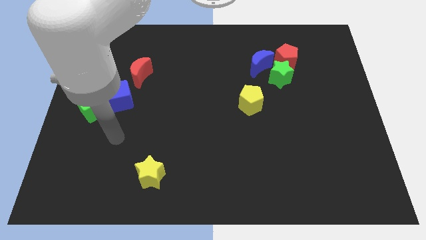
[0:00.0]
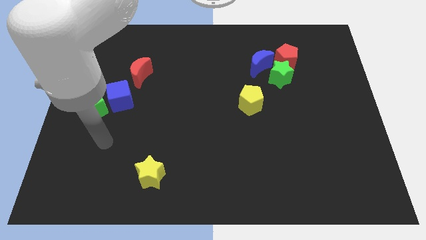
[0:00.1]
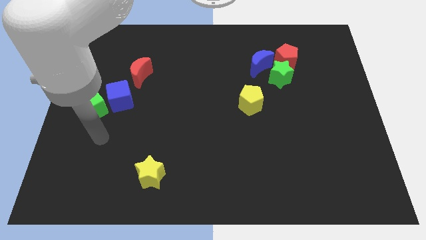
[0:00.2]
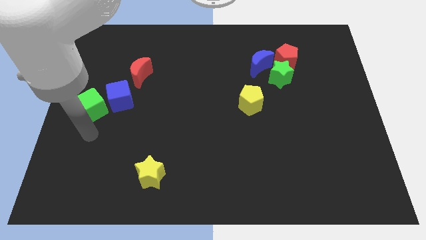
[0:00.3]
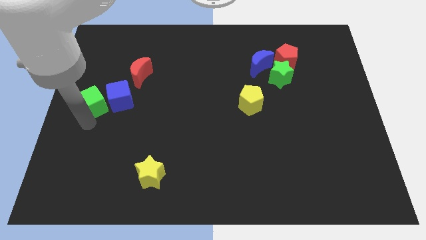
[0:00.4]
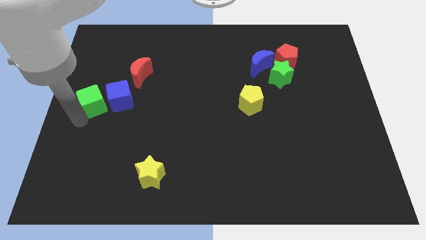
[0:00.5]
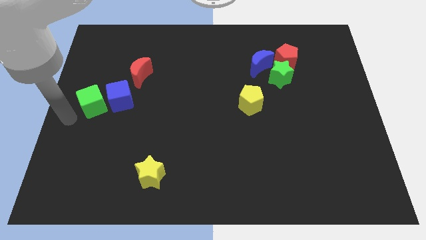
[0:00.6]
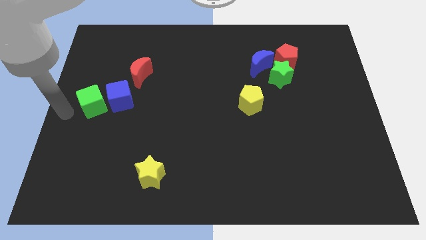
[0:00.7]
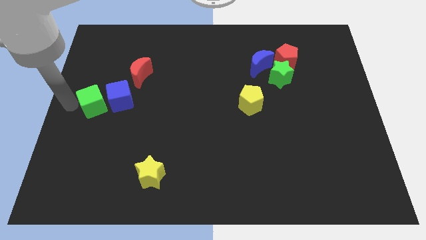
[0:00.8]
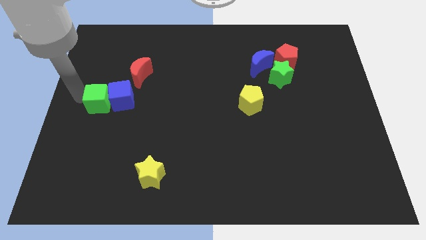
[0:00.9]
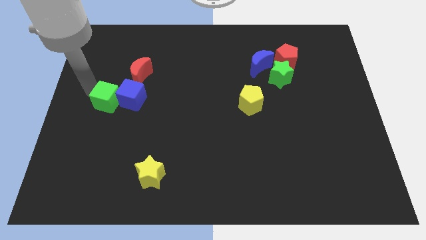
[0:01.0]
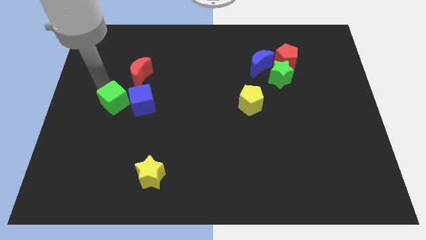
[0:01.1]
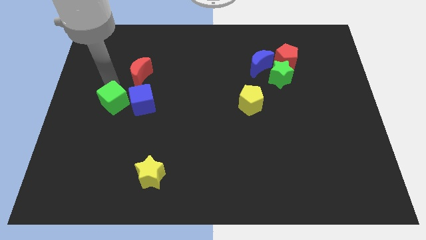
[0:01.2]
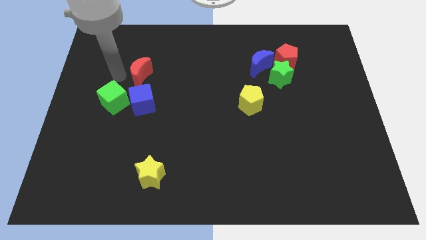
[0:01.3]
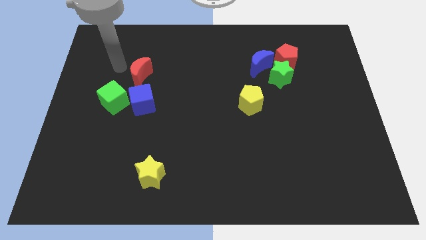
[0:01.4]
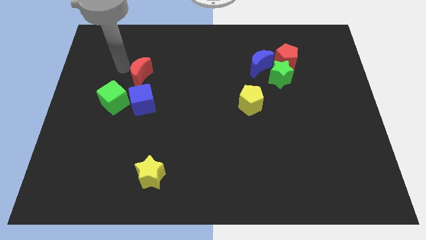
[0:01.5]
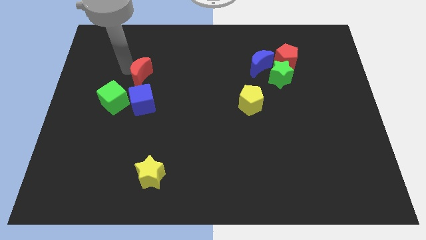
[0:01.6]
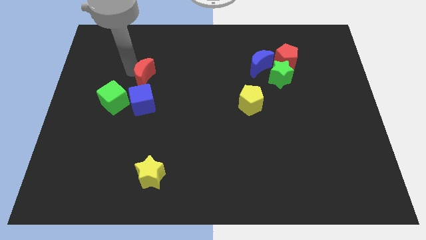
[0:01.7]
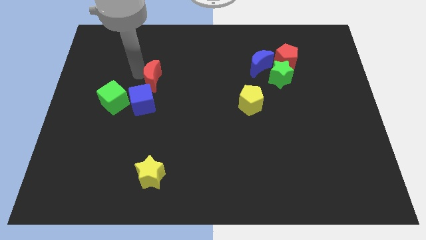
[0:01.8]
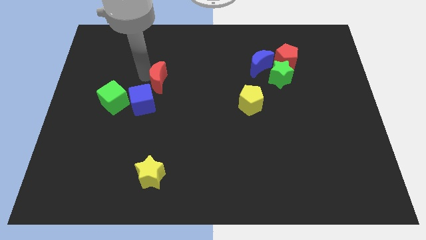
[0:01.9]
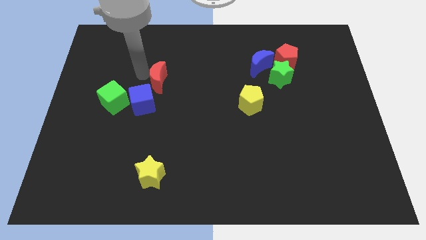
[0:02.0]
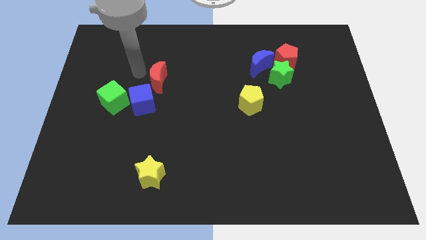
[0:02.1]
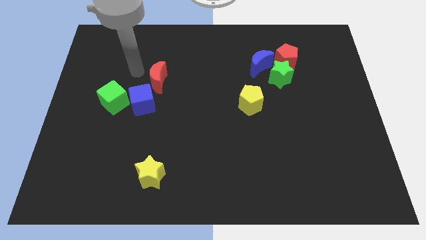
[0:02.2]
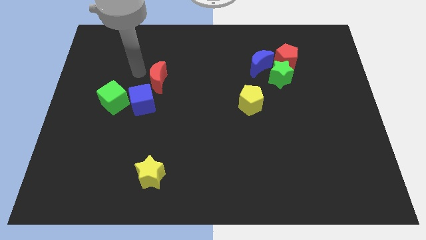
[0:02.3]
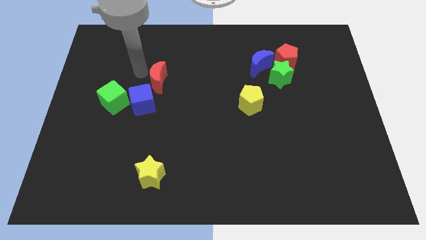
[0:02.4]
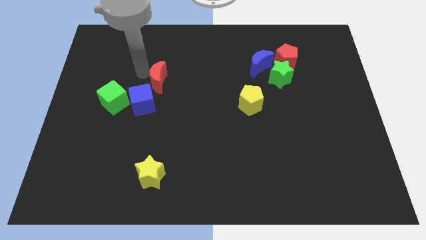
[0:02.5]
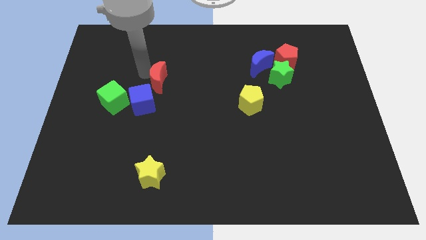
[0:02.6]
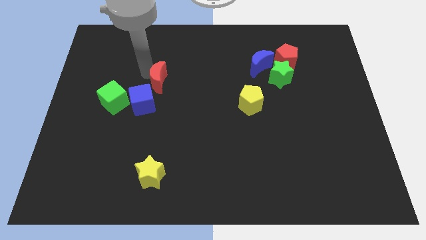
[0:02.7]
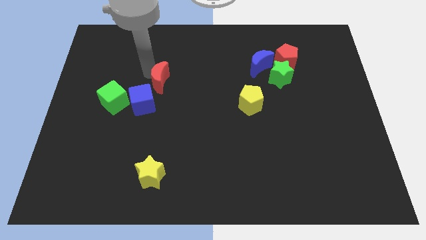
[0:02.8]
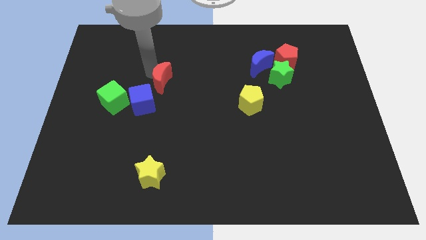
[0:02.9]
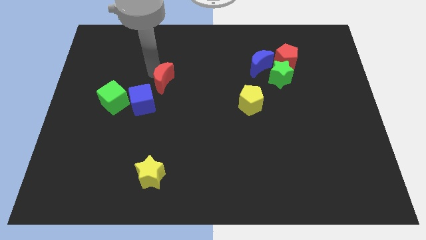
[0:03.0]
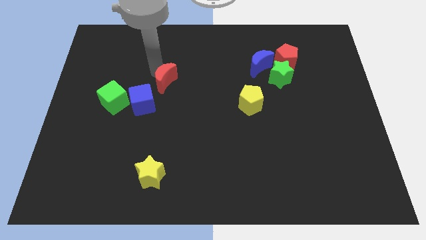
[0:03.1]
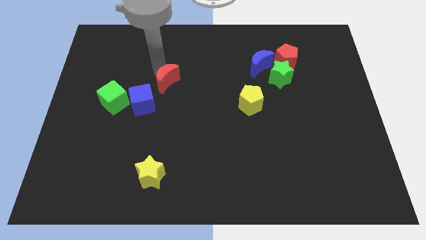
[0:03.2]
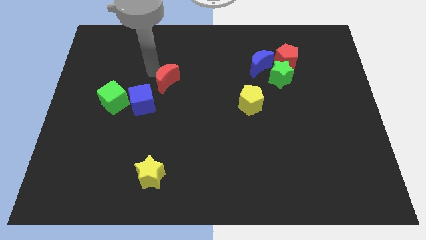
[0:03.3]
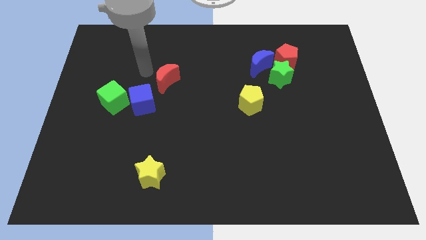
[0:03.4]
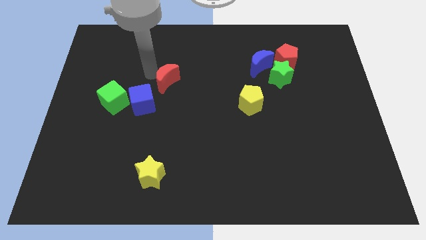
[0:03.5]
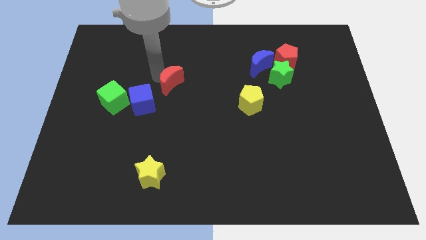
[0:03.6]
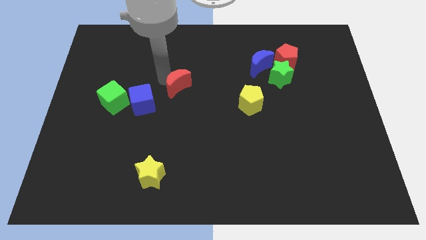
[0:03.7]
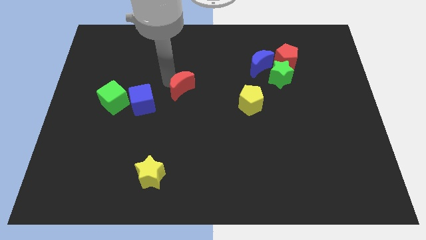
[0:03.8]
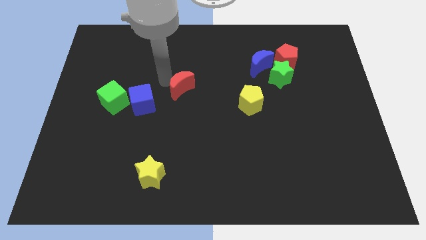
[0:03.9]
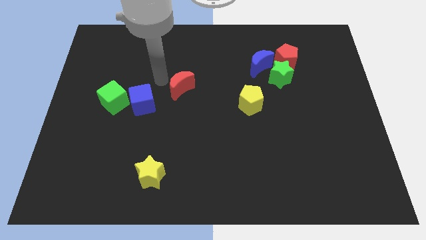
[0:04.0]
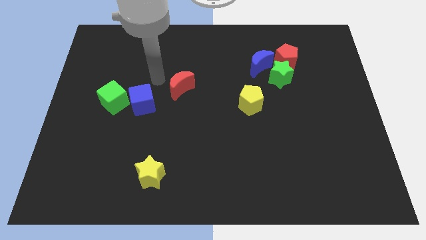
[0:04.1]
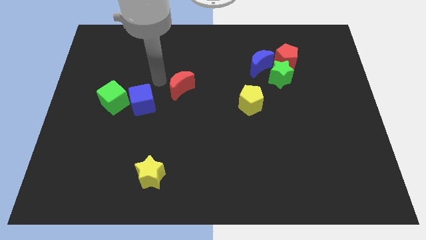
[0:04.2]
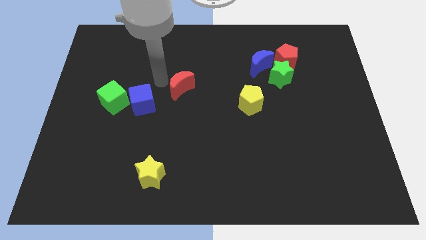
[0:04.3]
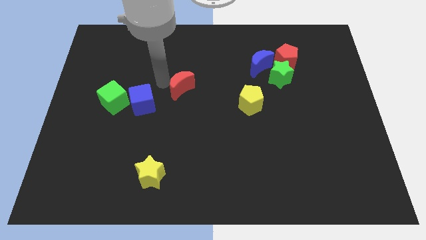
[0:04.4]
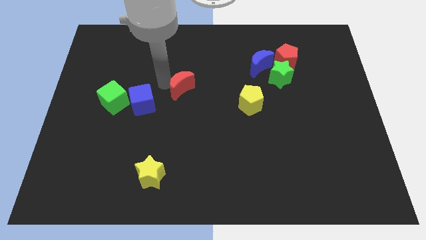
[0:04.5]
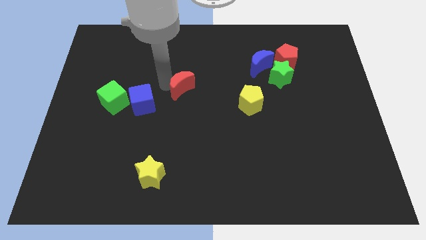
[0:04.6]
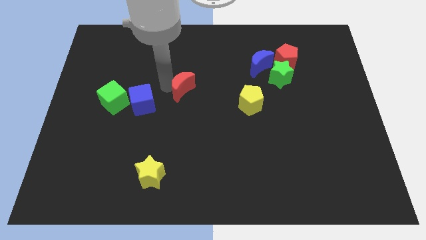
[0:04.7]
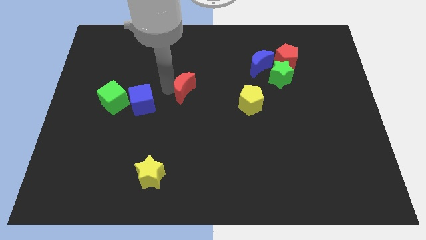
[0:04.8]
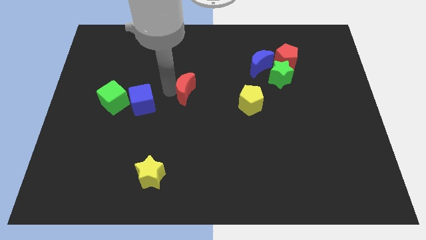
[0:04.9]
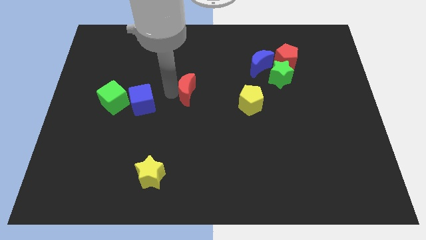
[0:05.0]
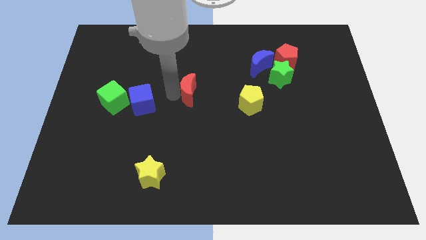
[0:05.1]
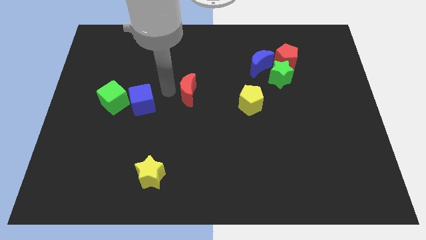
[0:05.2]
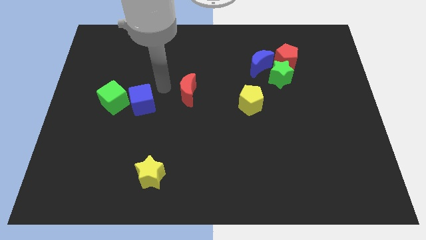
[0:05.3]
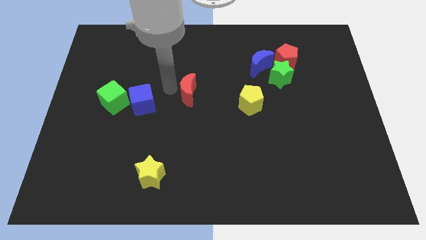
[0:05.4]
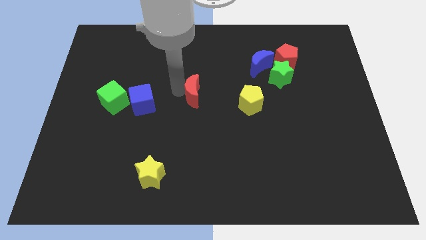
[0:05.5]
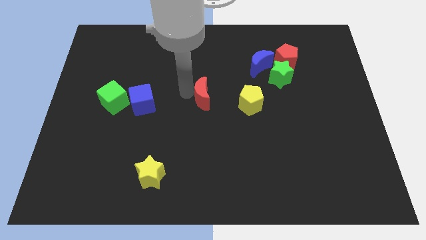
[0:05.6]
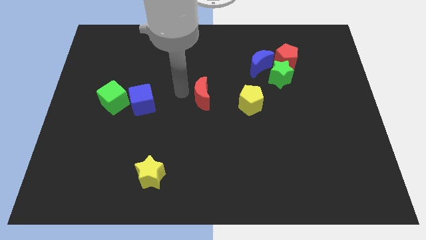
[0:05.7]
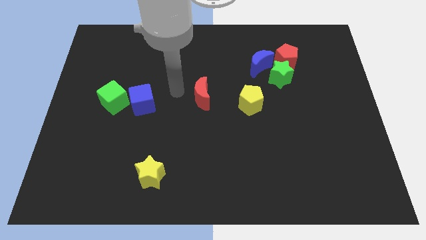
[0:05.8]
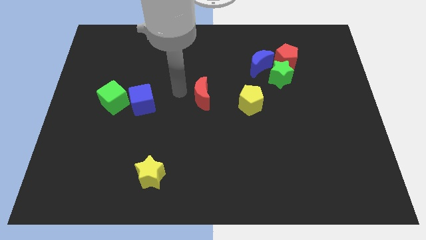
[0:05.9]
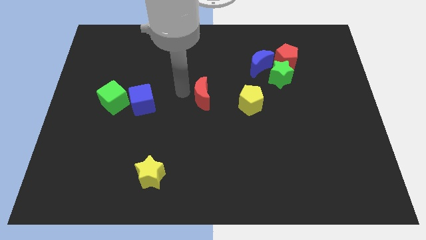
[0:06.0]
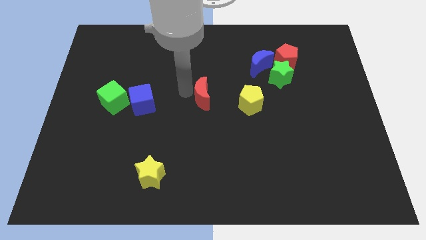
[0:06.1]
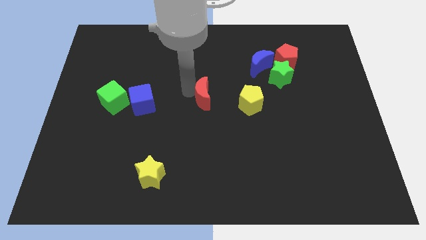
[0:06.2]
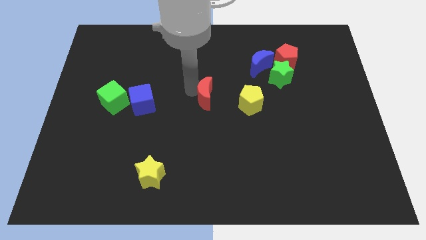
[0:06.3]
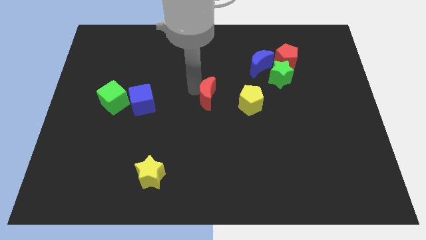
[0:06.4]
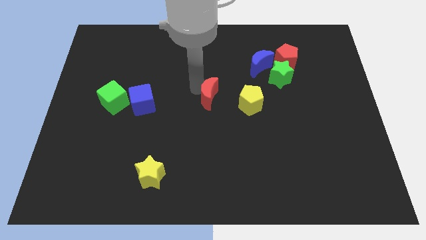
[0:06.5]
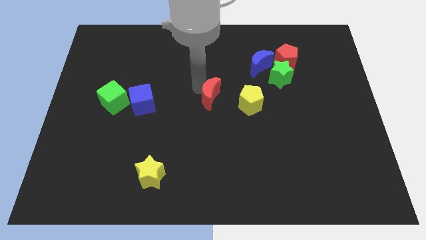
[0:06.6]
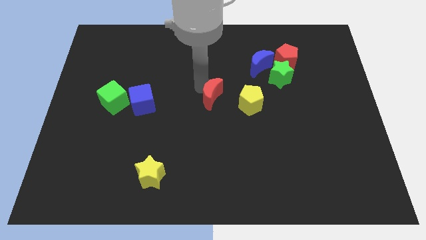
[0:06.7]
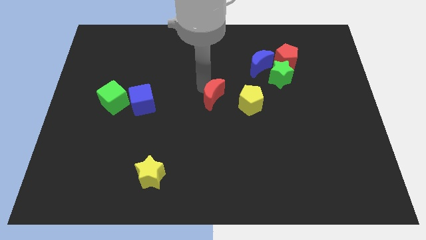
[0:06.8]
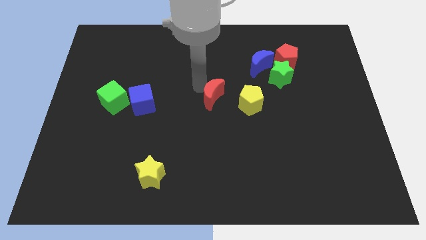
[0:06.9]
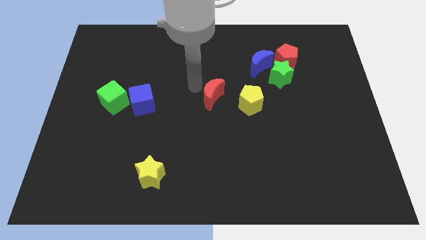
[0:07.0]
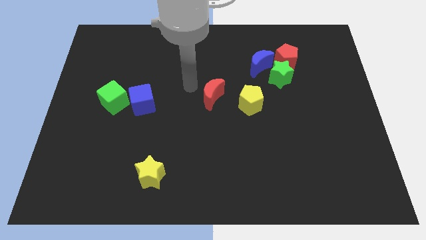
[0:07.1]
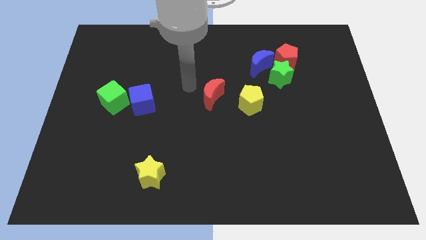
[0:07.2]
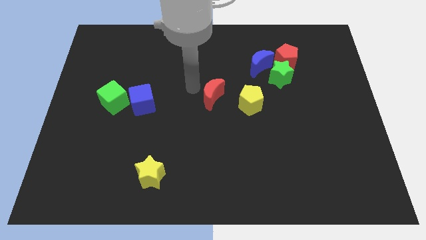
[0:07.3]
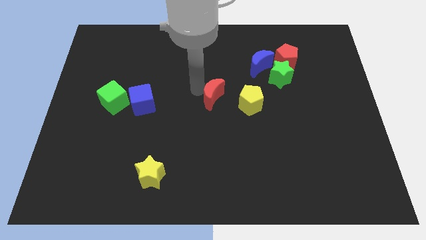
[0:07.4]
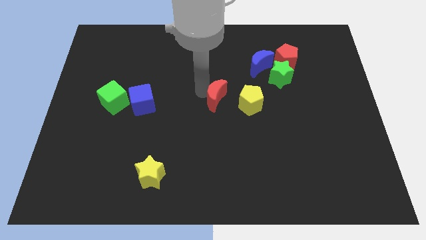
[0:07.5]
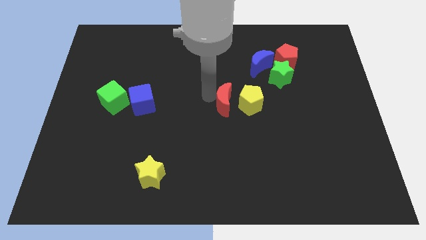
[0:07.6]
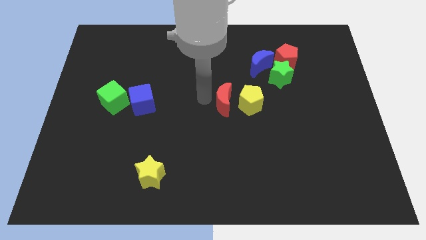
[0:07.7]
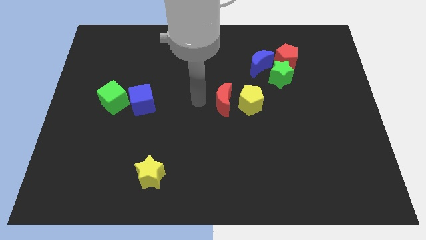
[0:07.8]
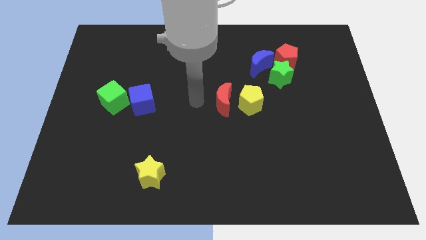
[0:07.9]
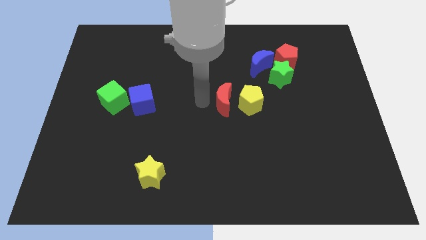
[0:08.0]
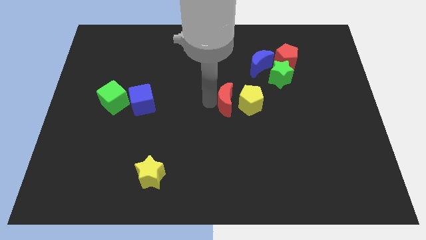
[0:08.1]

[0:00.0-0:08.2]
move the red moon towards the yellow pentagon
